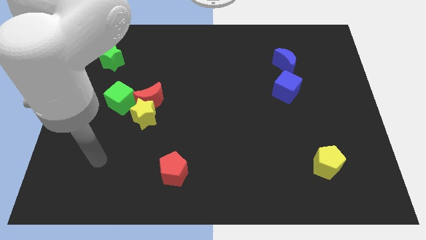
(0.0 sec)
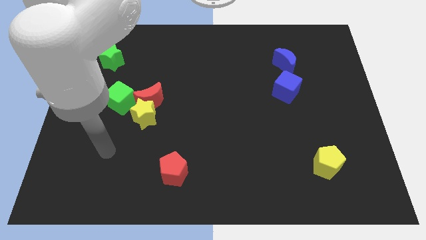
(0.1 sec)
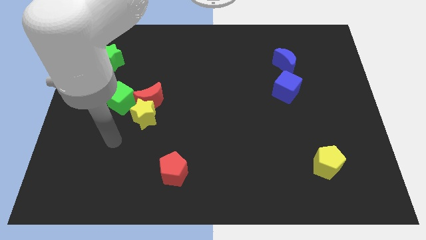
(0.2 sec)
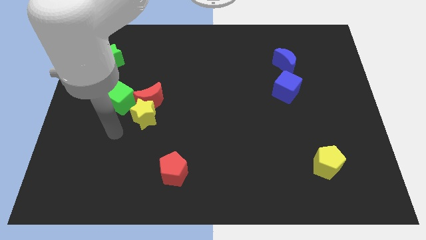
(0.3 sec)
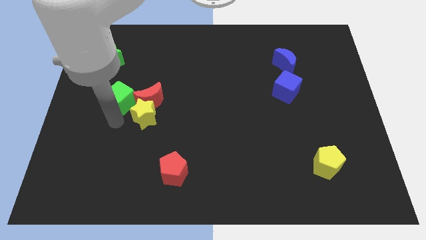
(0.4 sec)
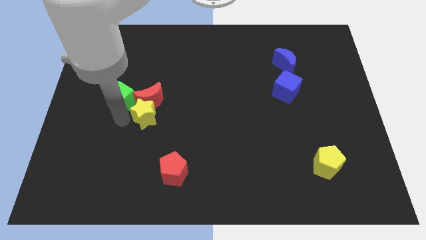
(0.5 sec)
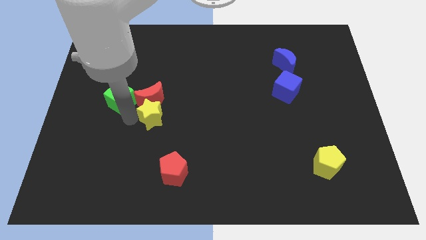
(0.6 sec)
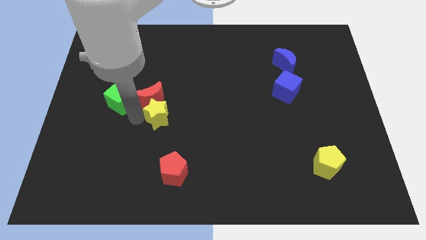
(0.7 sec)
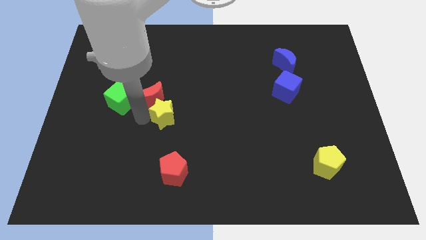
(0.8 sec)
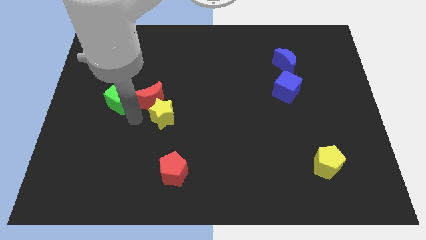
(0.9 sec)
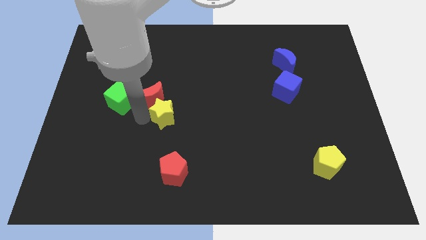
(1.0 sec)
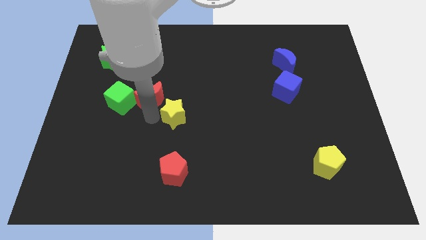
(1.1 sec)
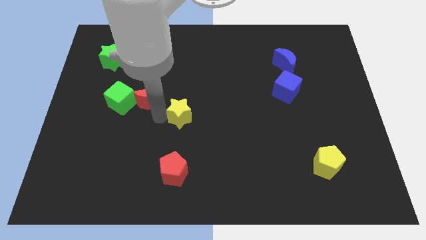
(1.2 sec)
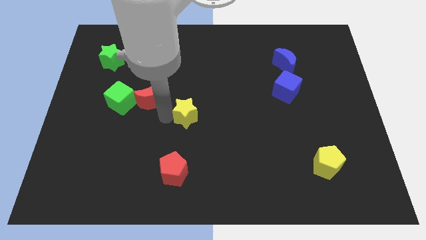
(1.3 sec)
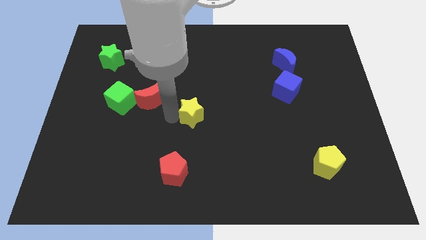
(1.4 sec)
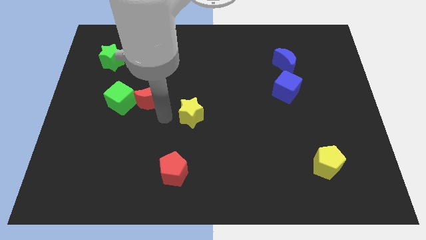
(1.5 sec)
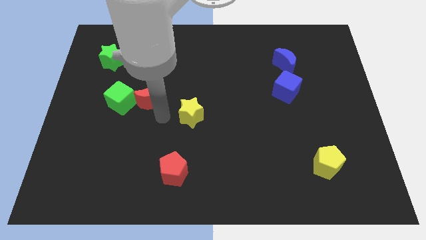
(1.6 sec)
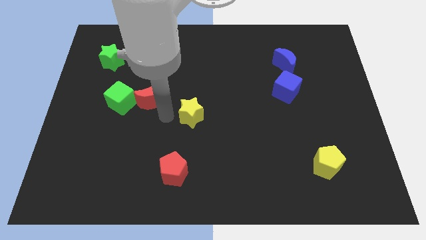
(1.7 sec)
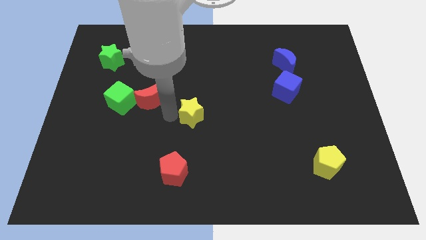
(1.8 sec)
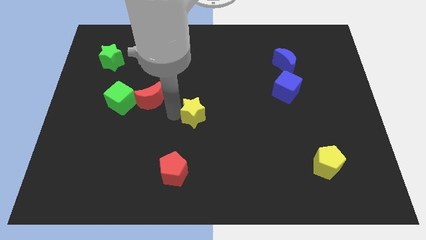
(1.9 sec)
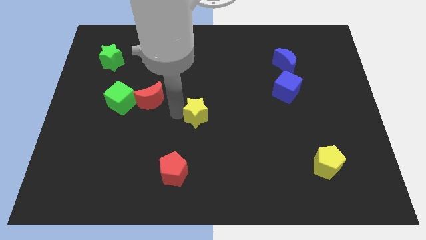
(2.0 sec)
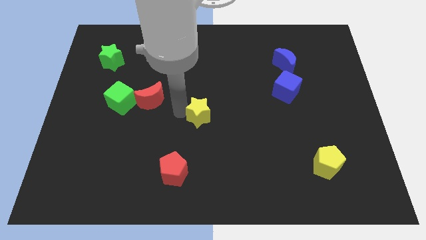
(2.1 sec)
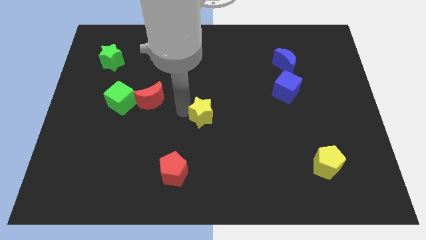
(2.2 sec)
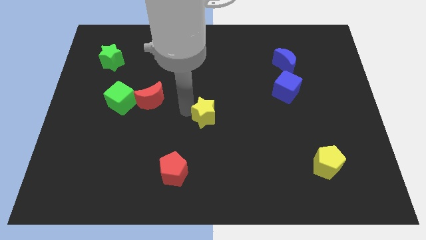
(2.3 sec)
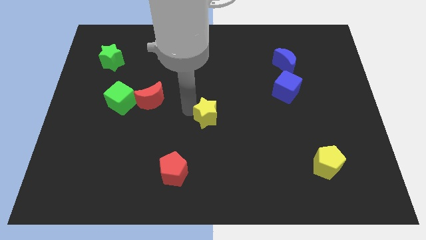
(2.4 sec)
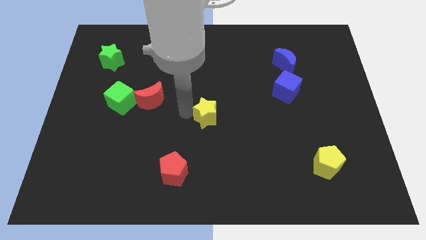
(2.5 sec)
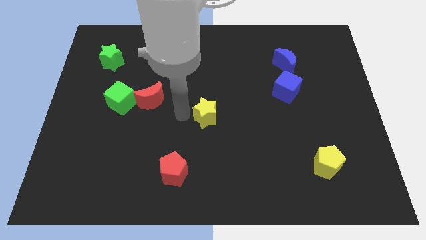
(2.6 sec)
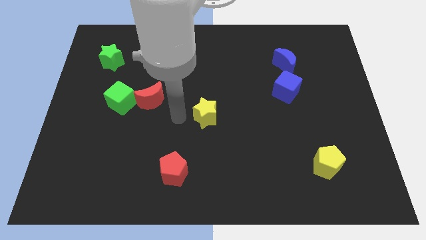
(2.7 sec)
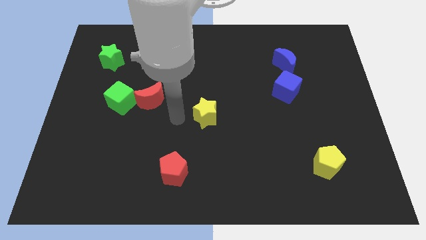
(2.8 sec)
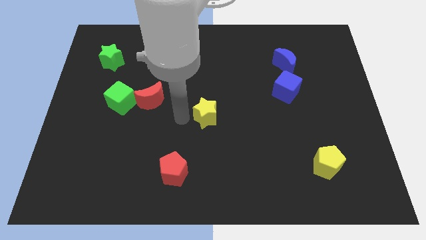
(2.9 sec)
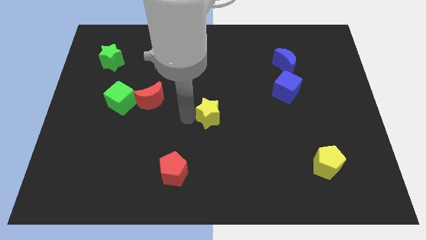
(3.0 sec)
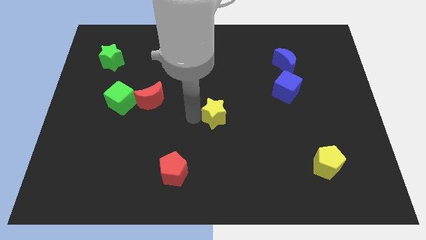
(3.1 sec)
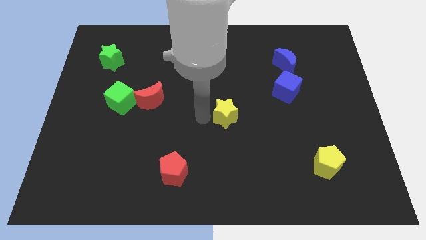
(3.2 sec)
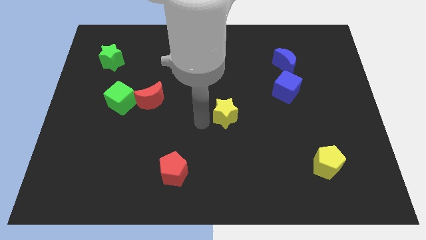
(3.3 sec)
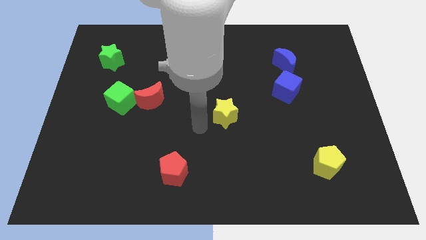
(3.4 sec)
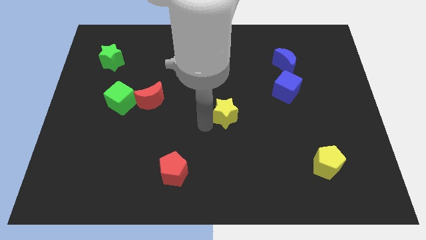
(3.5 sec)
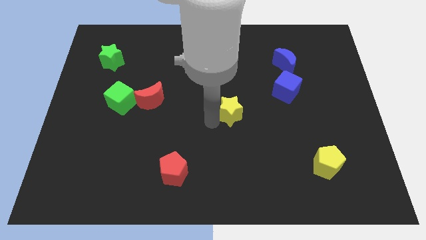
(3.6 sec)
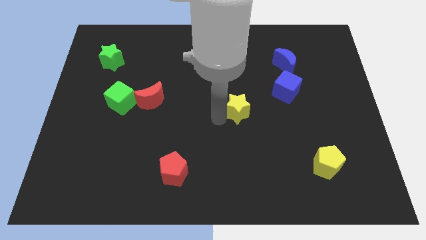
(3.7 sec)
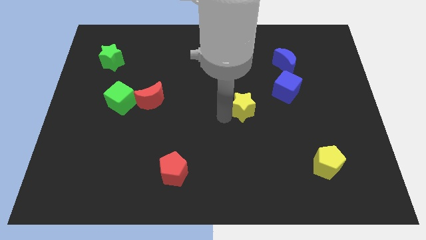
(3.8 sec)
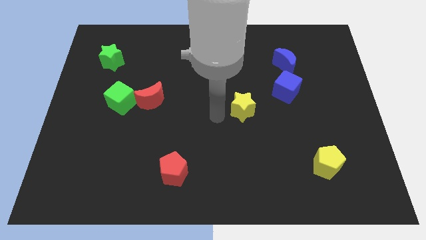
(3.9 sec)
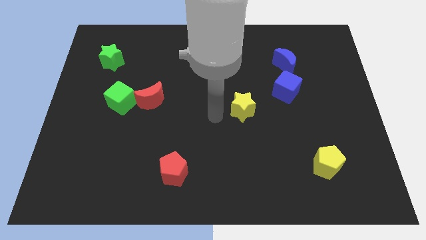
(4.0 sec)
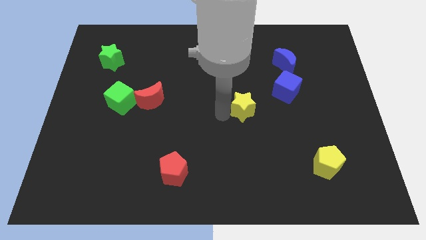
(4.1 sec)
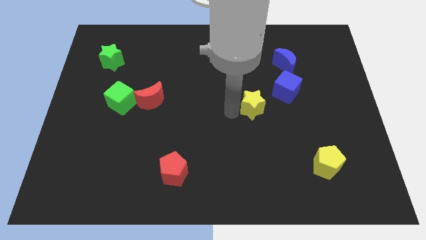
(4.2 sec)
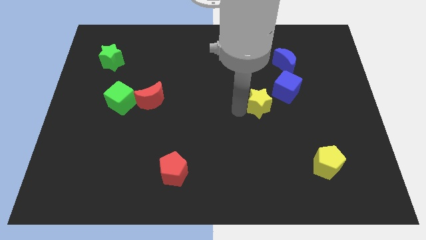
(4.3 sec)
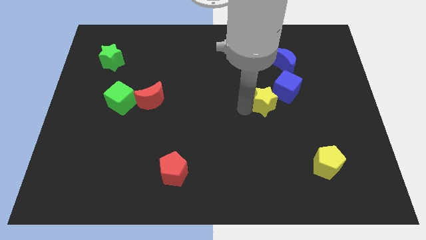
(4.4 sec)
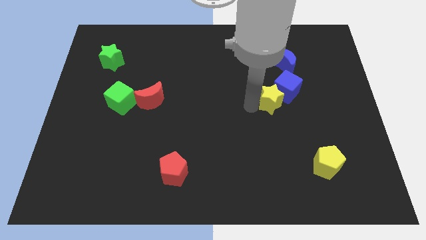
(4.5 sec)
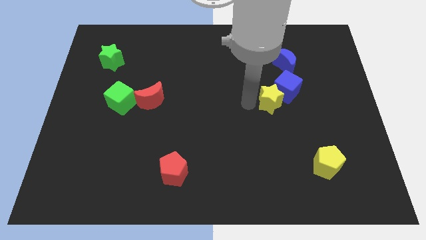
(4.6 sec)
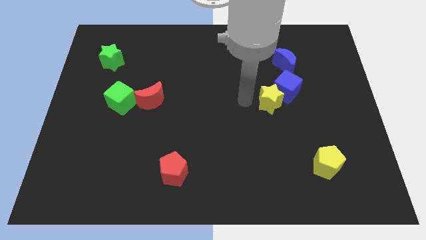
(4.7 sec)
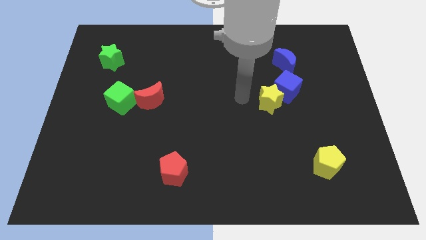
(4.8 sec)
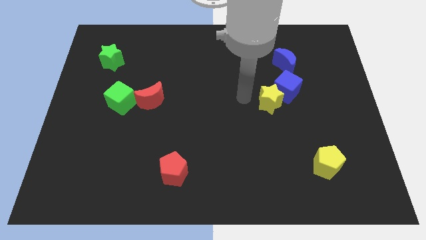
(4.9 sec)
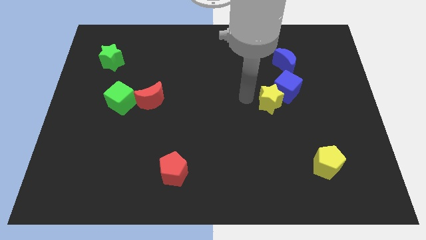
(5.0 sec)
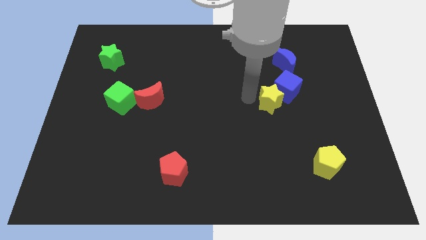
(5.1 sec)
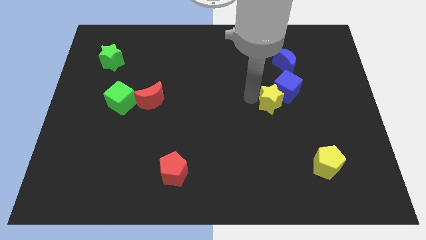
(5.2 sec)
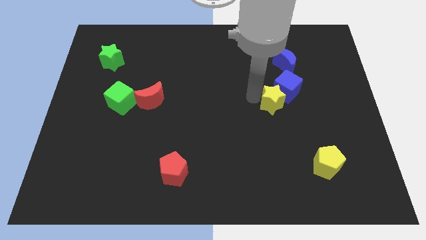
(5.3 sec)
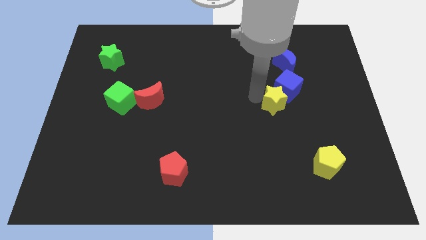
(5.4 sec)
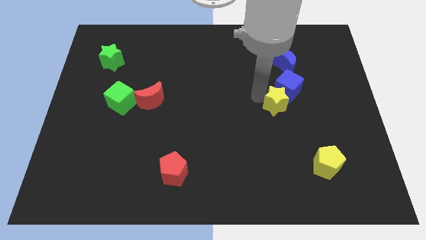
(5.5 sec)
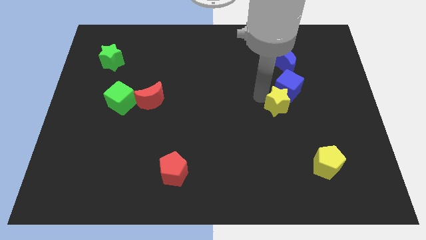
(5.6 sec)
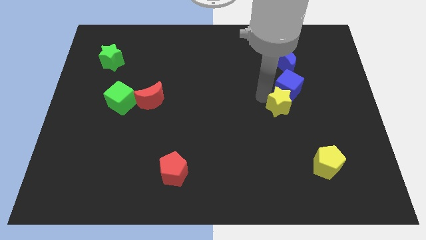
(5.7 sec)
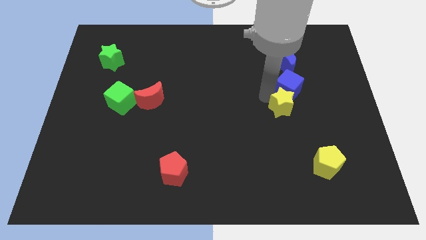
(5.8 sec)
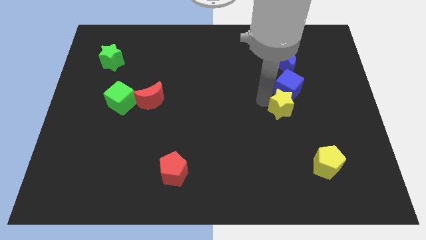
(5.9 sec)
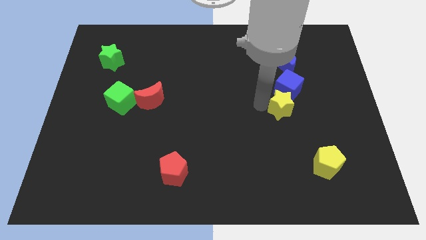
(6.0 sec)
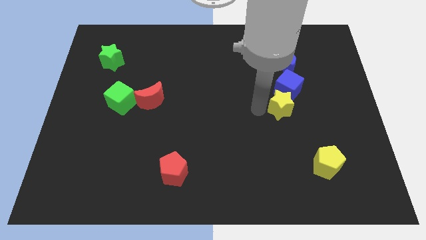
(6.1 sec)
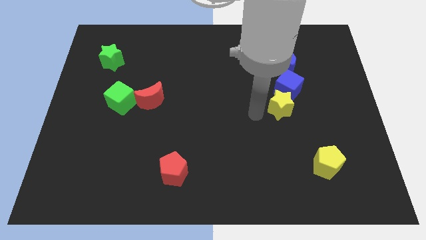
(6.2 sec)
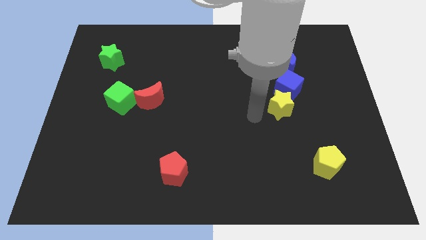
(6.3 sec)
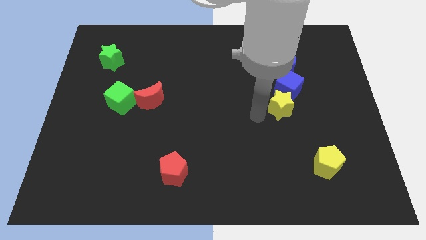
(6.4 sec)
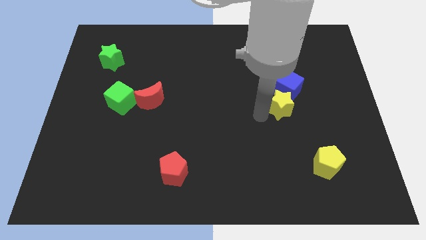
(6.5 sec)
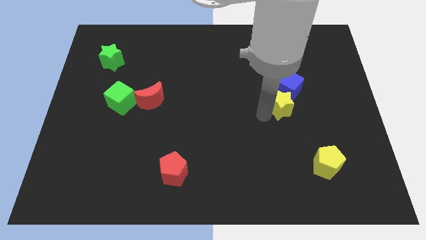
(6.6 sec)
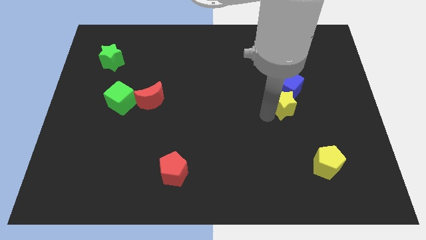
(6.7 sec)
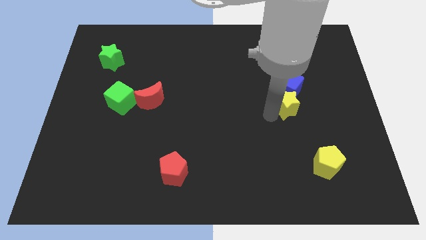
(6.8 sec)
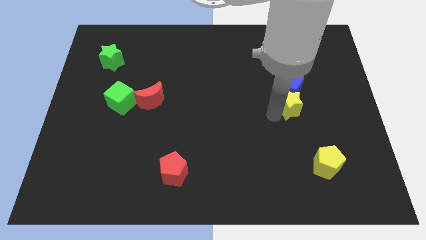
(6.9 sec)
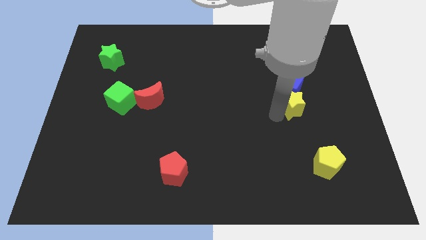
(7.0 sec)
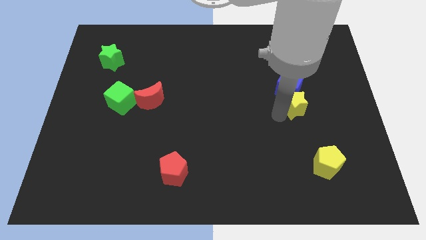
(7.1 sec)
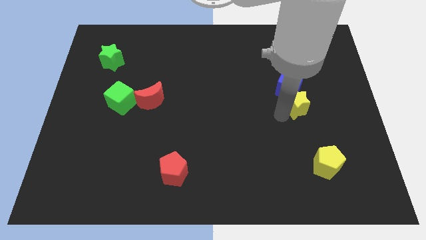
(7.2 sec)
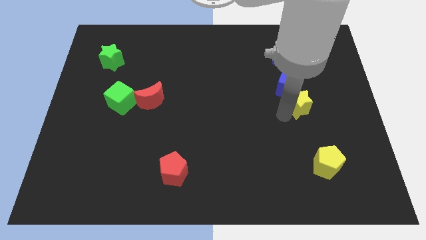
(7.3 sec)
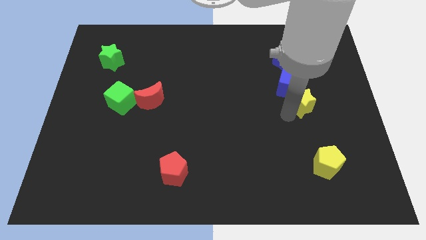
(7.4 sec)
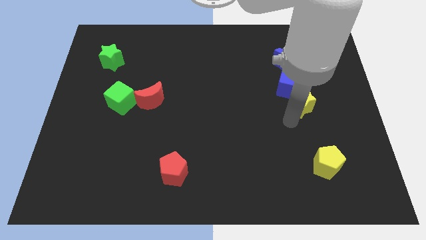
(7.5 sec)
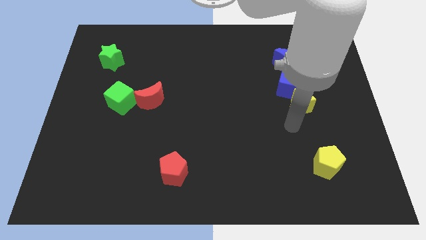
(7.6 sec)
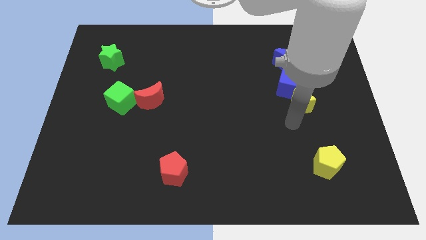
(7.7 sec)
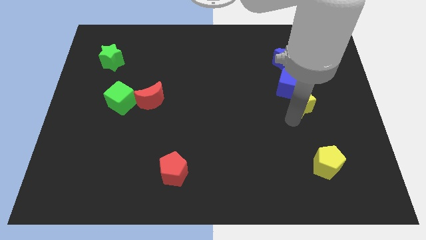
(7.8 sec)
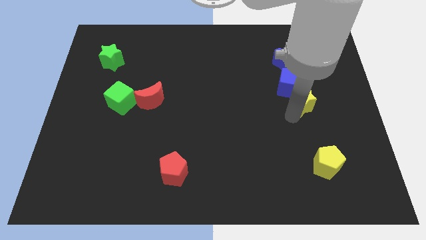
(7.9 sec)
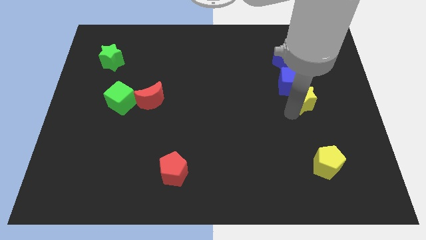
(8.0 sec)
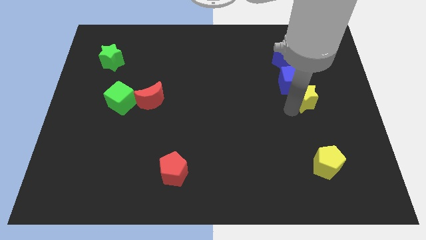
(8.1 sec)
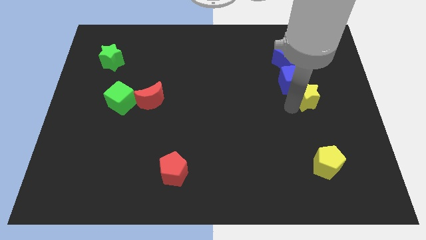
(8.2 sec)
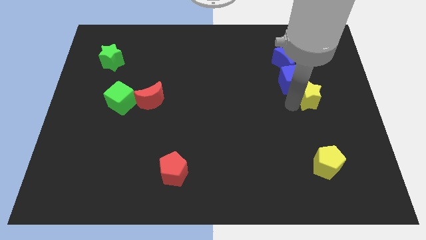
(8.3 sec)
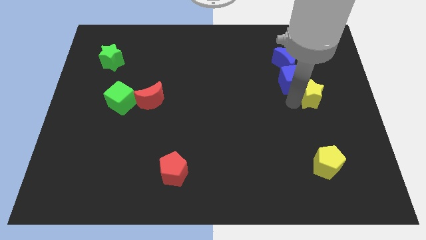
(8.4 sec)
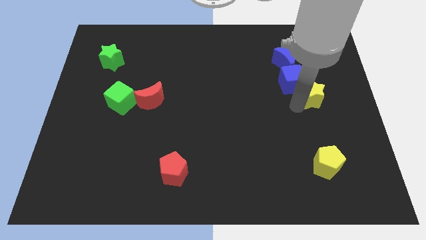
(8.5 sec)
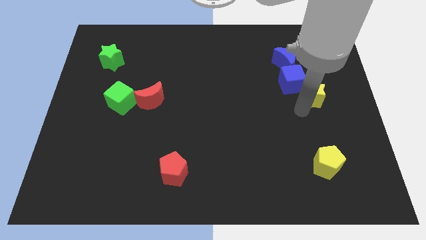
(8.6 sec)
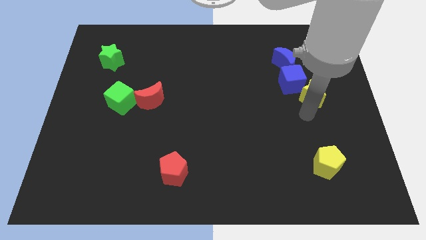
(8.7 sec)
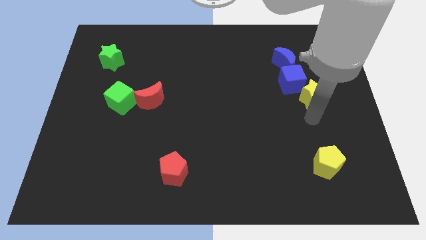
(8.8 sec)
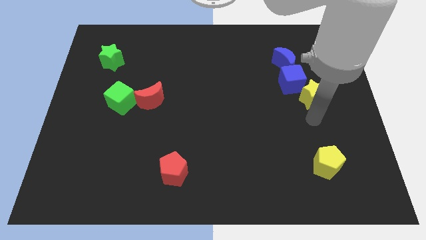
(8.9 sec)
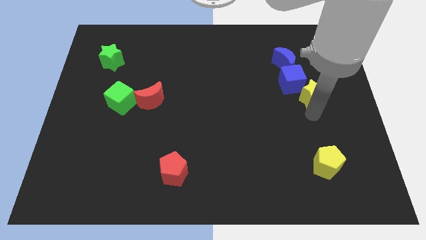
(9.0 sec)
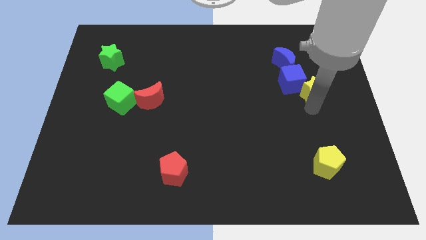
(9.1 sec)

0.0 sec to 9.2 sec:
put the yellow star to the bottom right side of the blue moon
